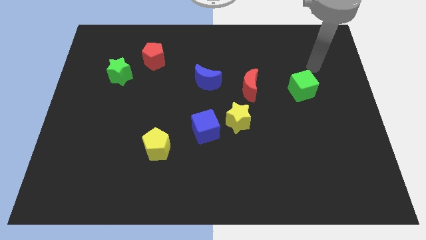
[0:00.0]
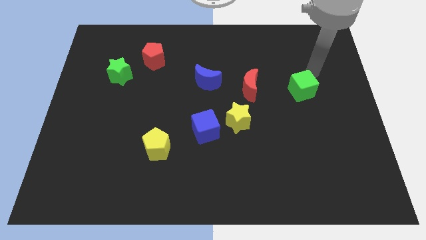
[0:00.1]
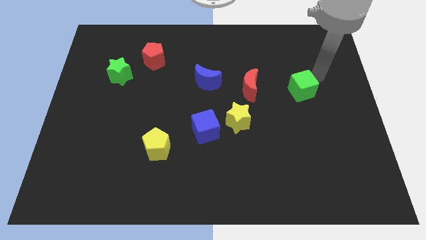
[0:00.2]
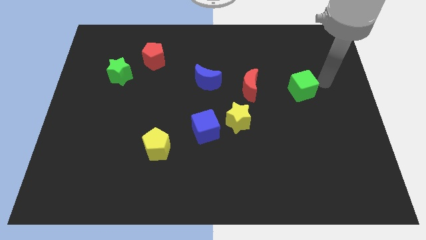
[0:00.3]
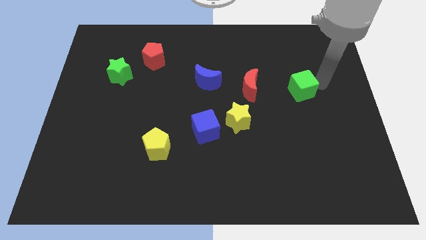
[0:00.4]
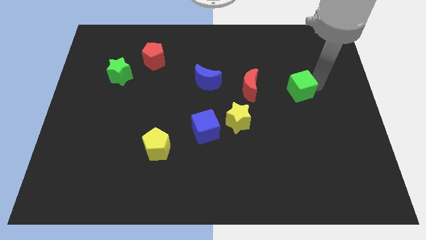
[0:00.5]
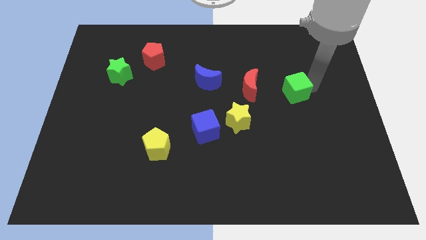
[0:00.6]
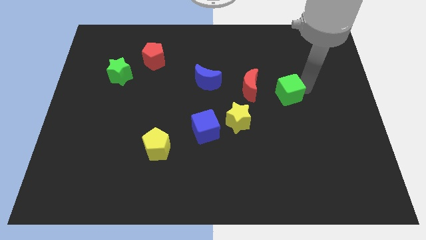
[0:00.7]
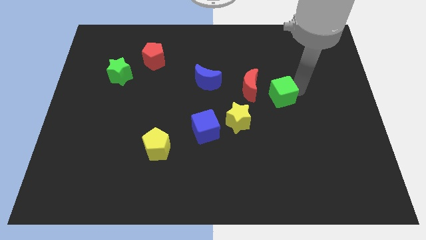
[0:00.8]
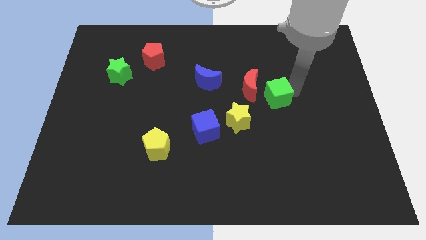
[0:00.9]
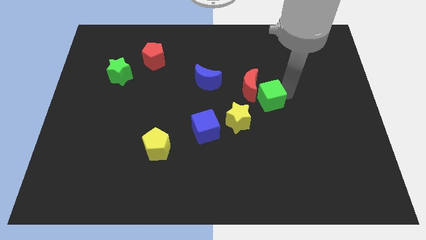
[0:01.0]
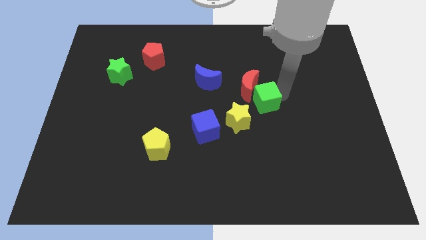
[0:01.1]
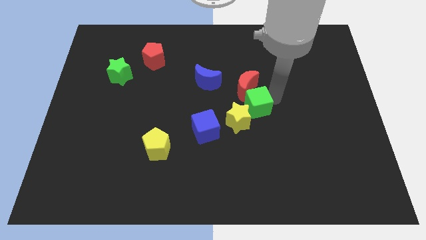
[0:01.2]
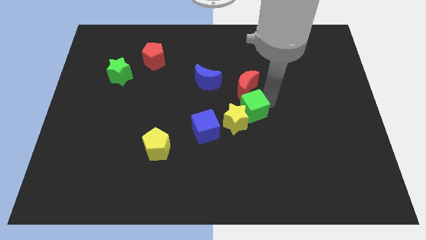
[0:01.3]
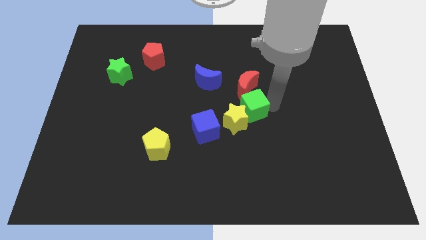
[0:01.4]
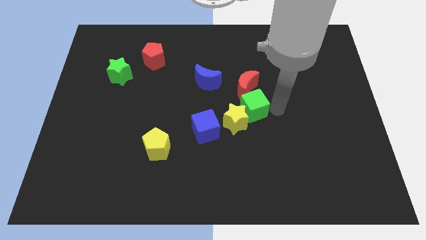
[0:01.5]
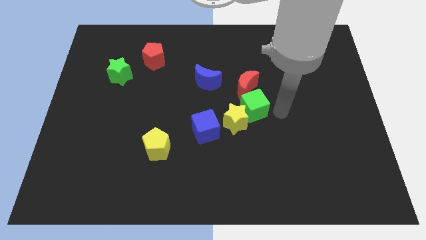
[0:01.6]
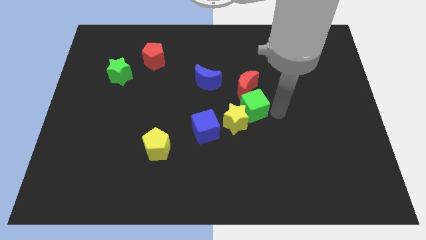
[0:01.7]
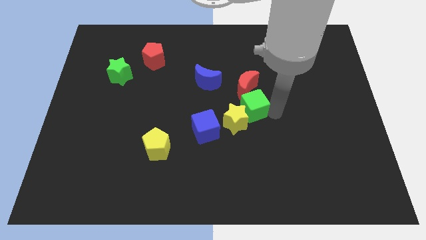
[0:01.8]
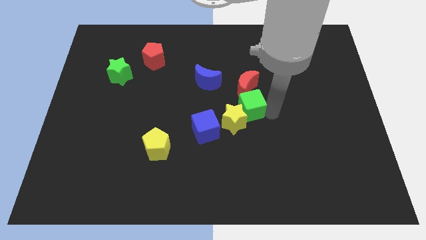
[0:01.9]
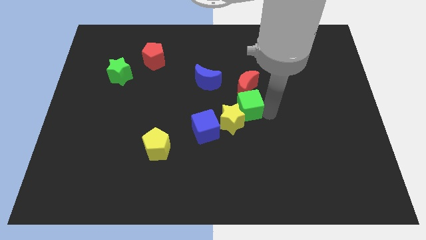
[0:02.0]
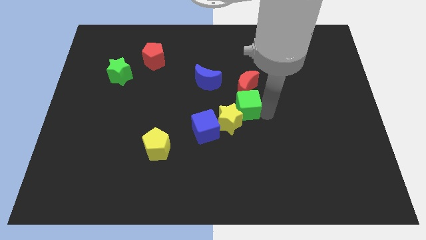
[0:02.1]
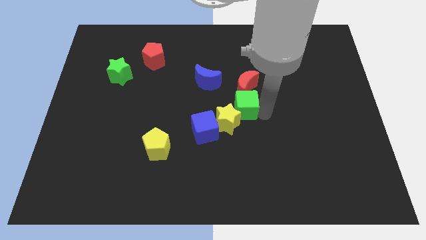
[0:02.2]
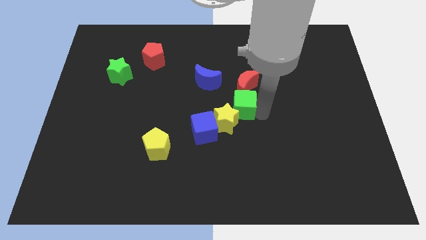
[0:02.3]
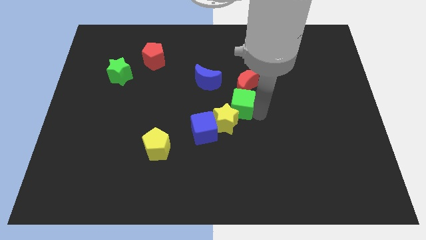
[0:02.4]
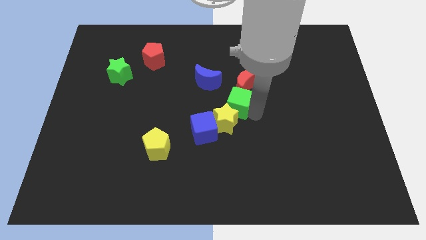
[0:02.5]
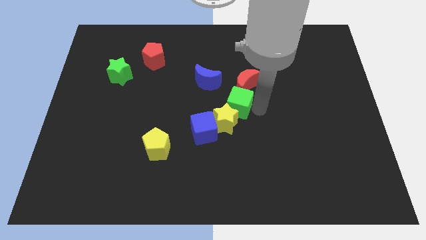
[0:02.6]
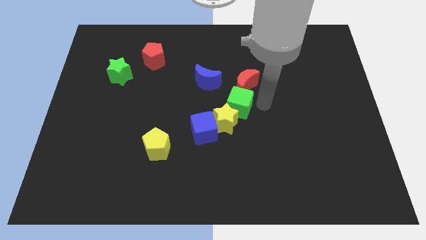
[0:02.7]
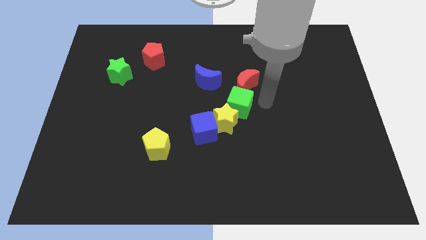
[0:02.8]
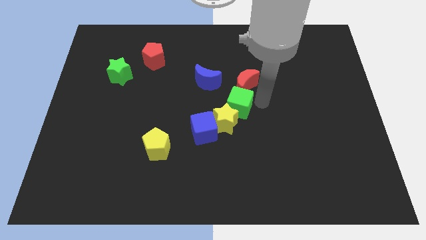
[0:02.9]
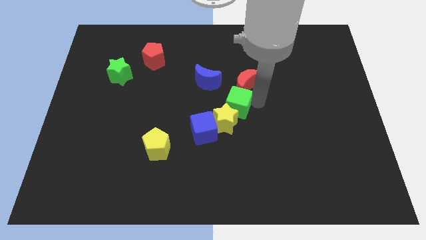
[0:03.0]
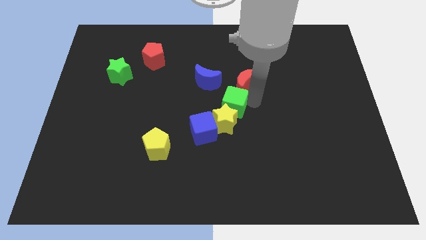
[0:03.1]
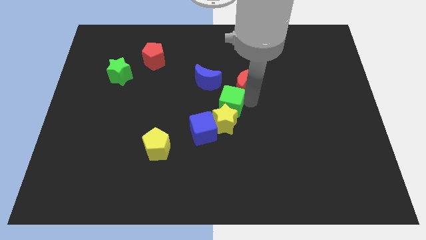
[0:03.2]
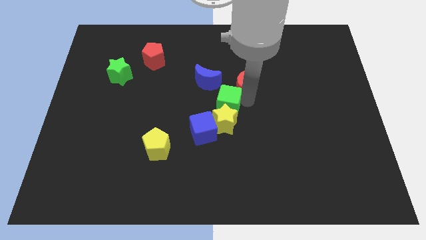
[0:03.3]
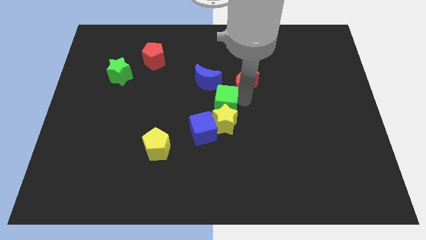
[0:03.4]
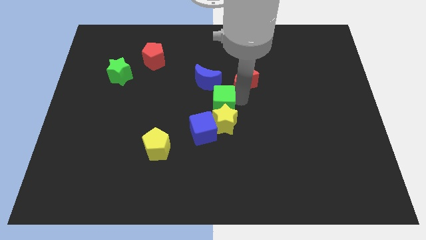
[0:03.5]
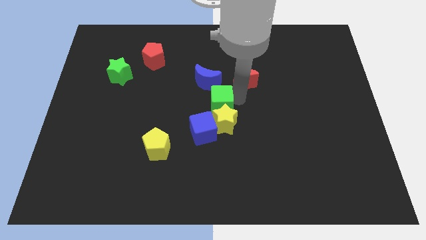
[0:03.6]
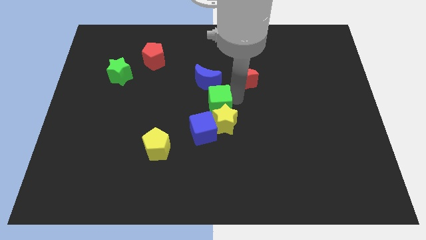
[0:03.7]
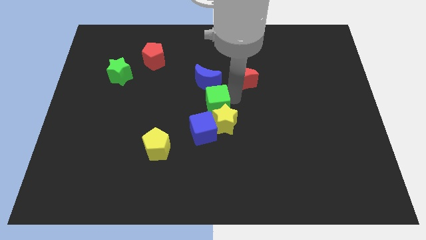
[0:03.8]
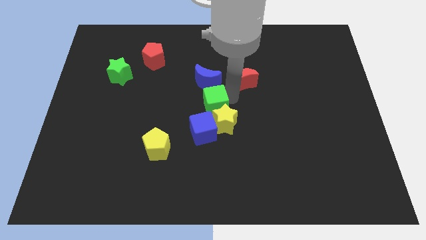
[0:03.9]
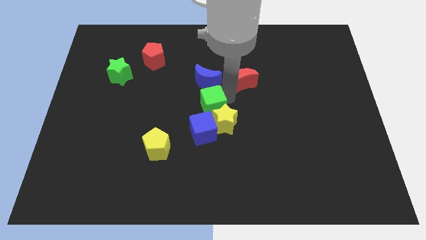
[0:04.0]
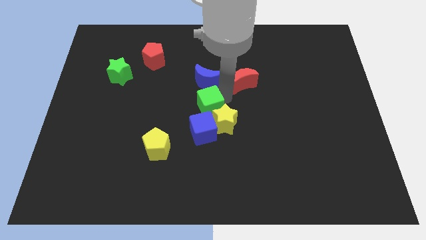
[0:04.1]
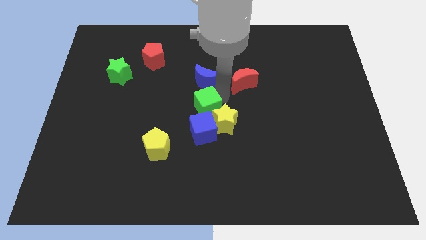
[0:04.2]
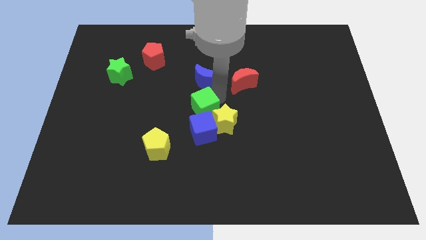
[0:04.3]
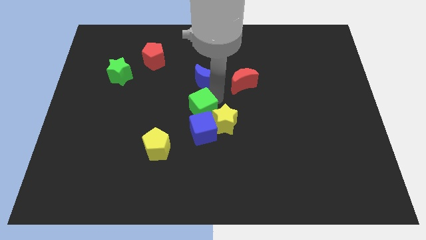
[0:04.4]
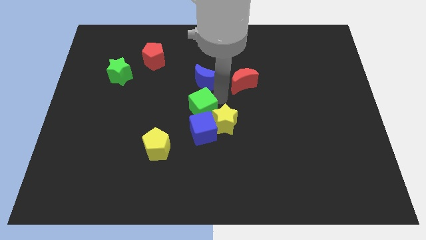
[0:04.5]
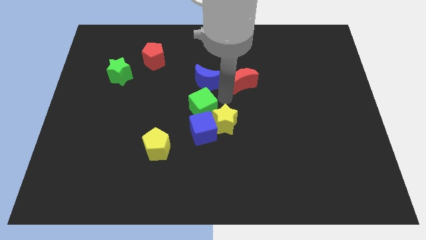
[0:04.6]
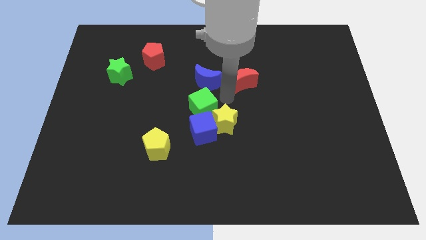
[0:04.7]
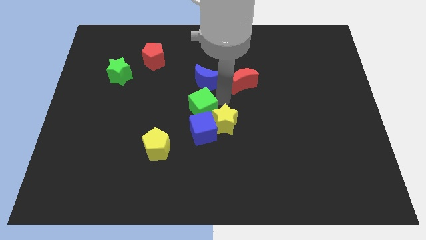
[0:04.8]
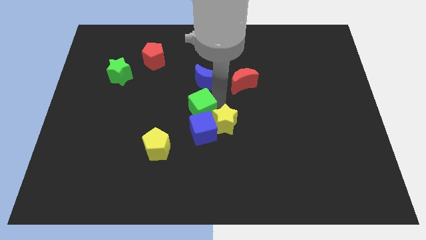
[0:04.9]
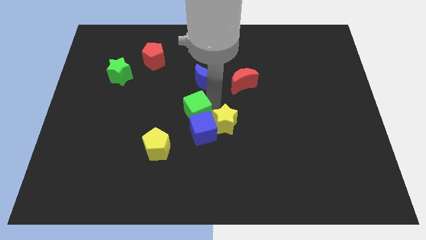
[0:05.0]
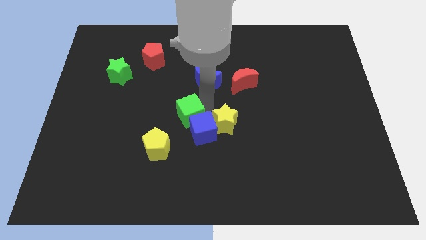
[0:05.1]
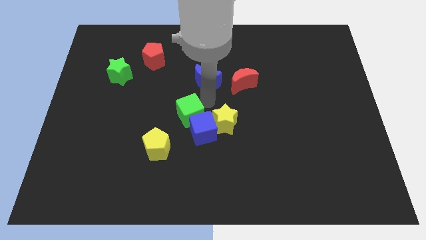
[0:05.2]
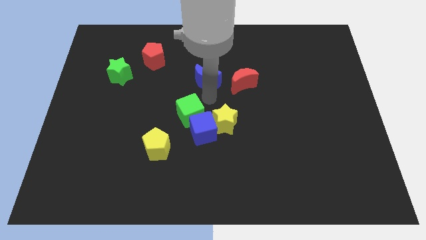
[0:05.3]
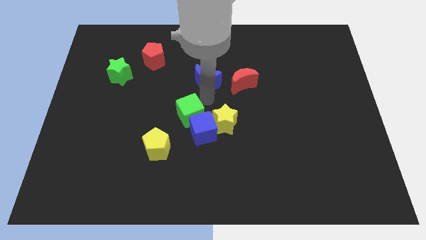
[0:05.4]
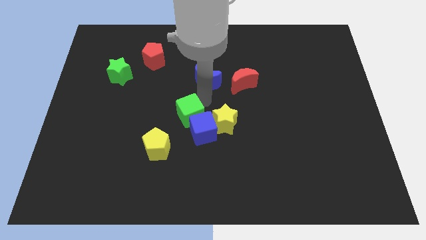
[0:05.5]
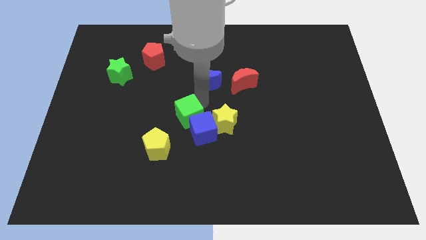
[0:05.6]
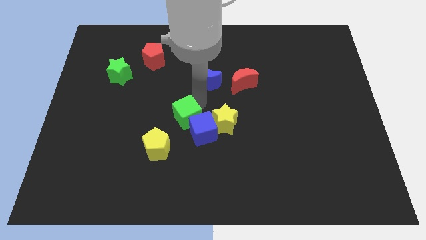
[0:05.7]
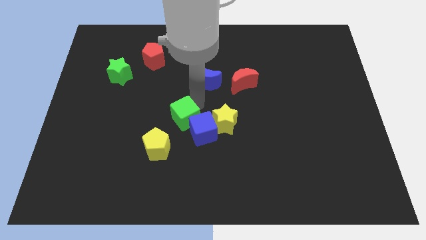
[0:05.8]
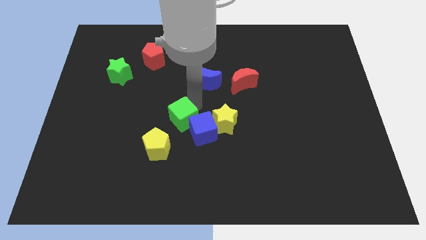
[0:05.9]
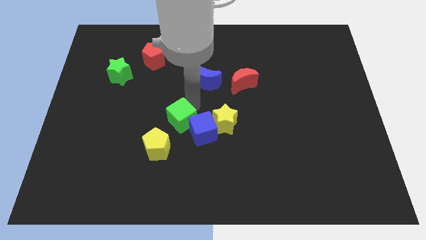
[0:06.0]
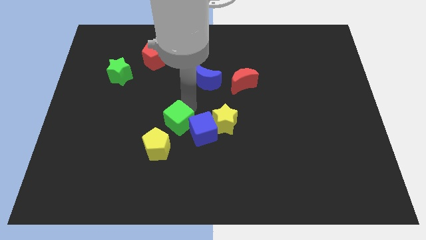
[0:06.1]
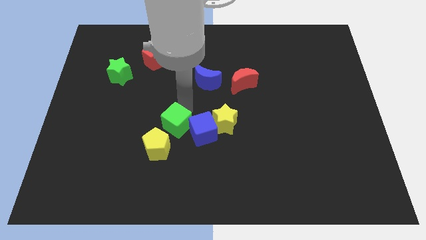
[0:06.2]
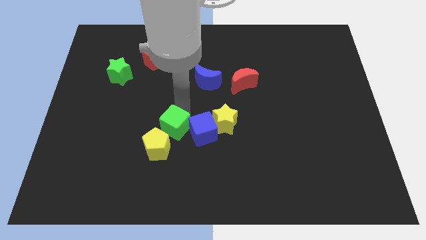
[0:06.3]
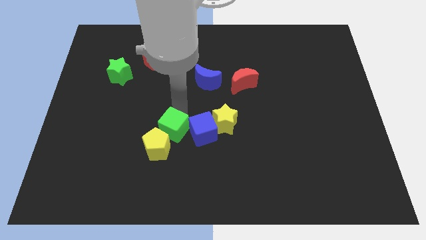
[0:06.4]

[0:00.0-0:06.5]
slide the green cube next to the yellow pentagon
